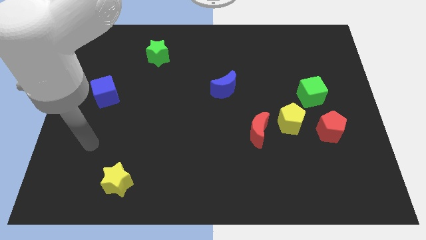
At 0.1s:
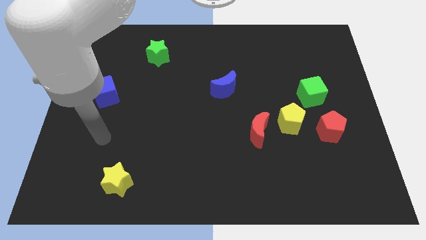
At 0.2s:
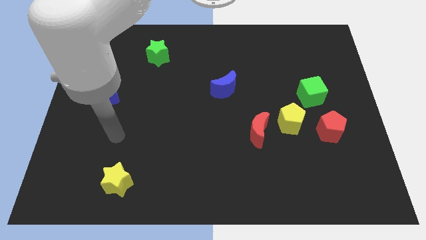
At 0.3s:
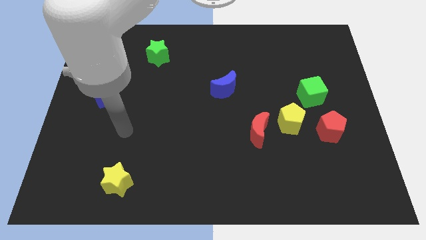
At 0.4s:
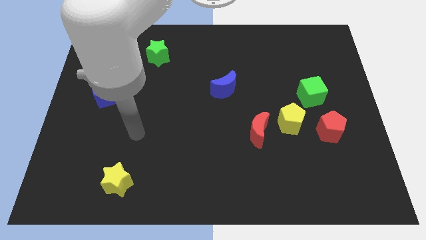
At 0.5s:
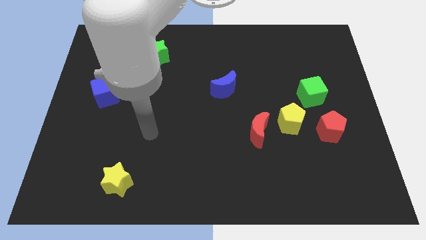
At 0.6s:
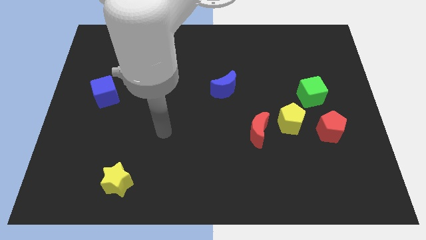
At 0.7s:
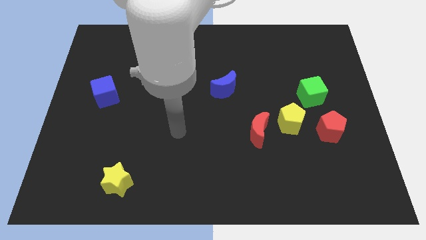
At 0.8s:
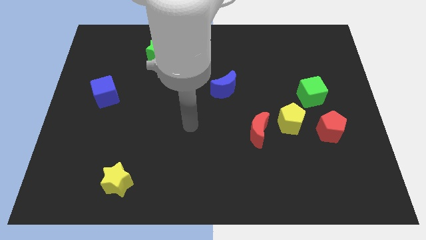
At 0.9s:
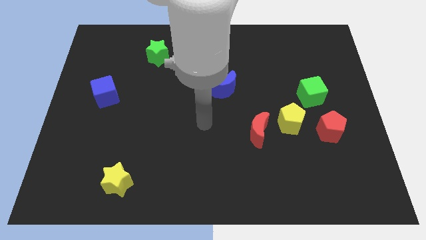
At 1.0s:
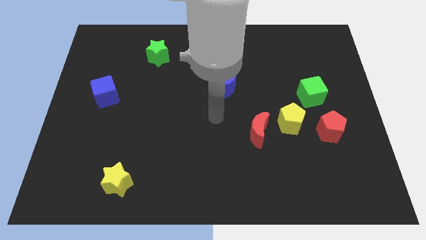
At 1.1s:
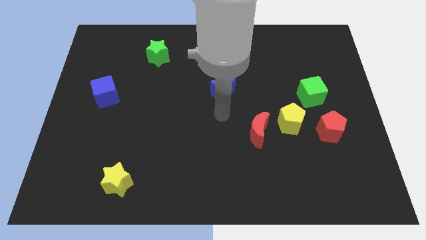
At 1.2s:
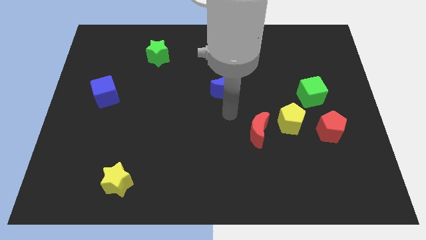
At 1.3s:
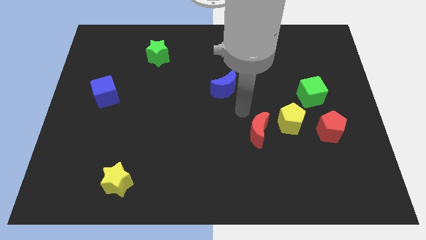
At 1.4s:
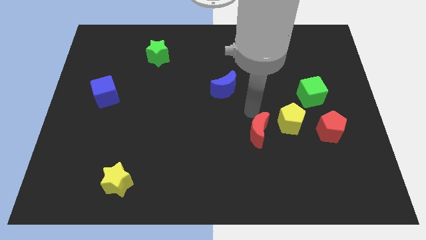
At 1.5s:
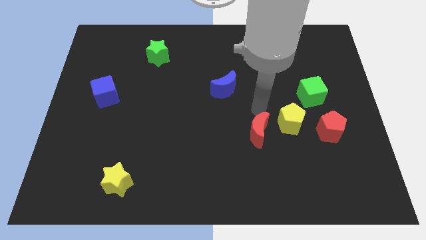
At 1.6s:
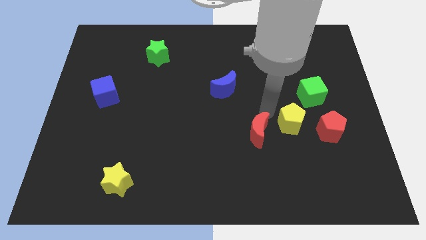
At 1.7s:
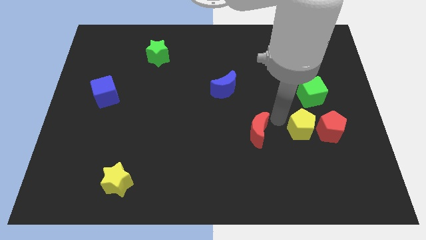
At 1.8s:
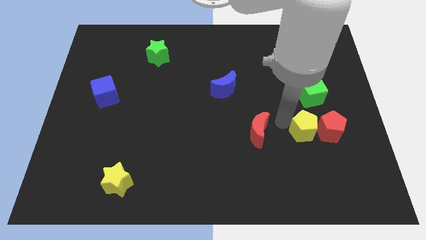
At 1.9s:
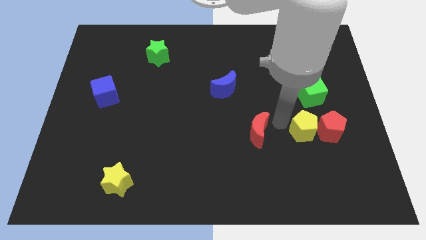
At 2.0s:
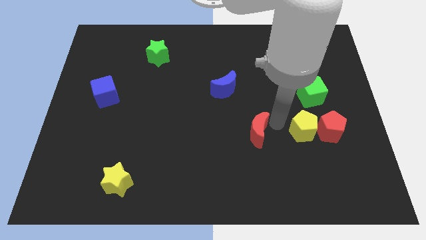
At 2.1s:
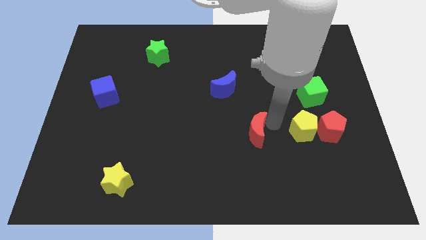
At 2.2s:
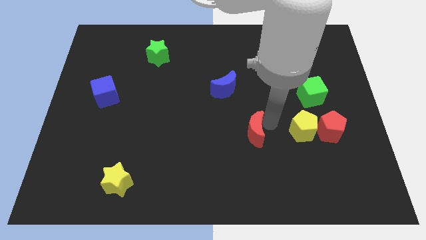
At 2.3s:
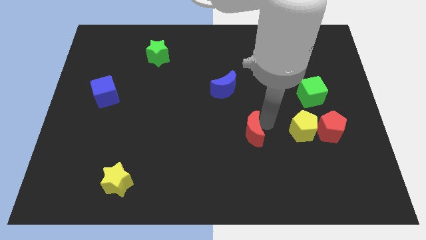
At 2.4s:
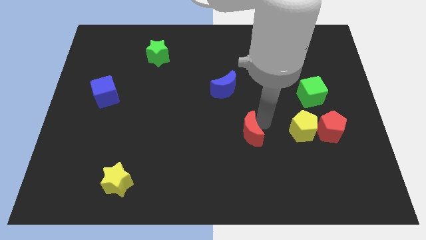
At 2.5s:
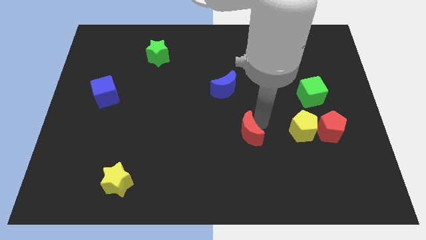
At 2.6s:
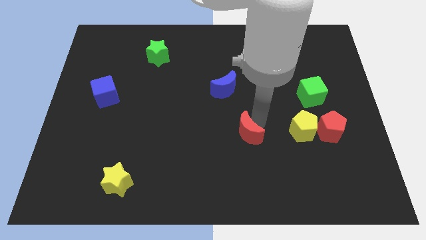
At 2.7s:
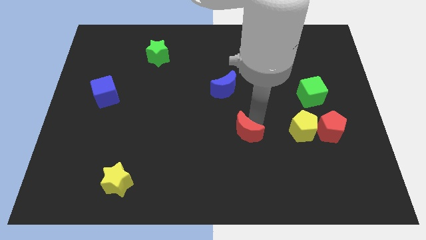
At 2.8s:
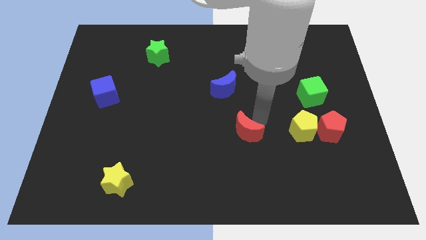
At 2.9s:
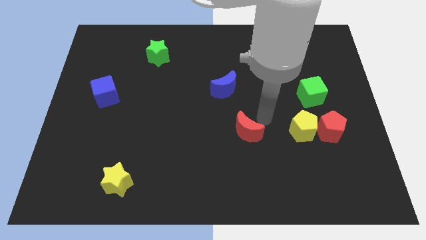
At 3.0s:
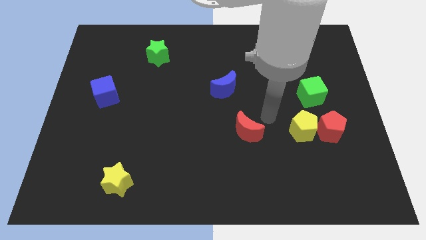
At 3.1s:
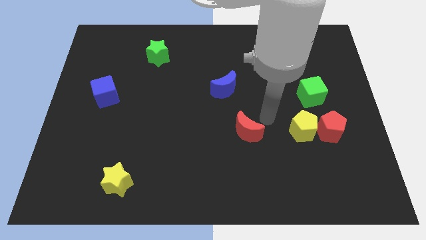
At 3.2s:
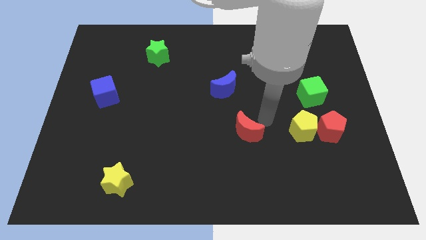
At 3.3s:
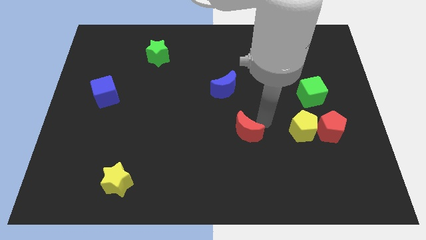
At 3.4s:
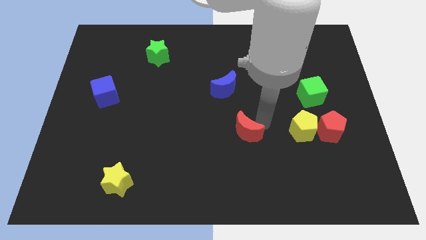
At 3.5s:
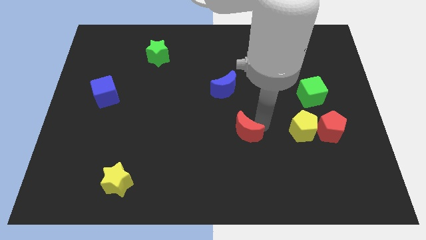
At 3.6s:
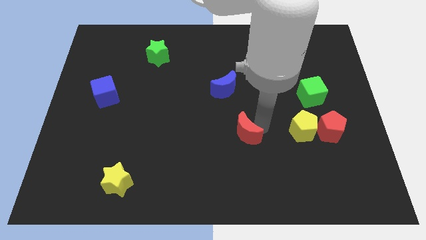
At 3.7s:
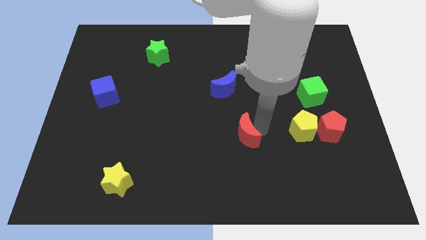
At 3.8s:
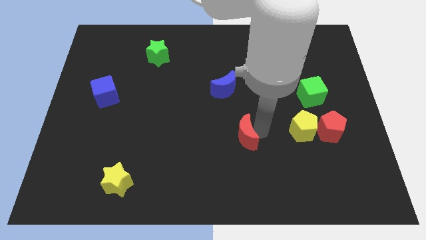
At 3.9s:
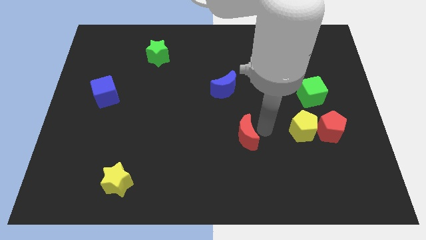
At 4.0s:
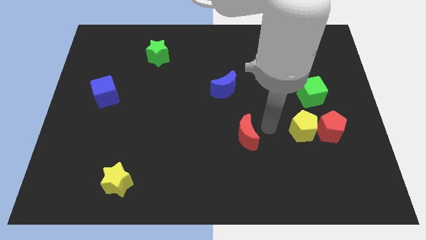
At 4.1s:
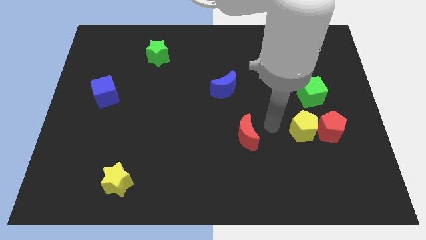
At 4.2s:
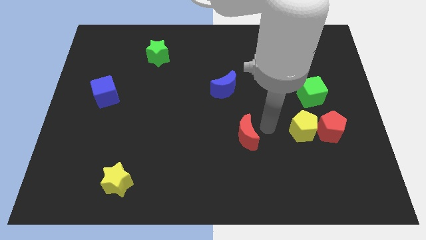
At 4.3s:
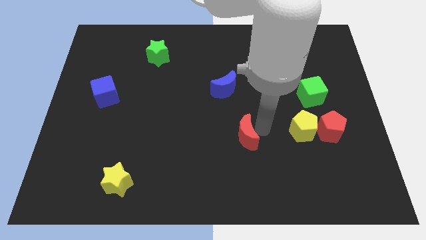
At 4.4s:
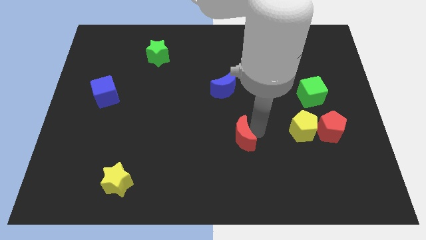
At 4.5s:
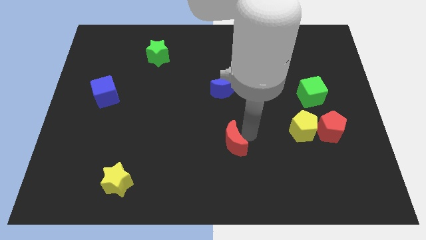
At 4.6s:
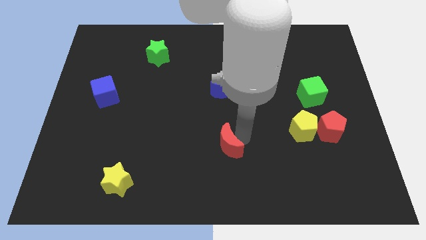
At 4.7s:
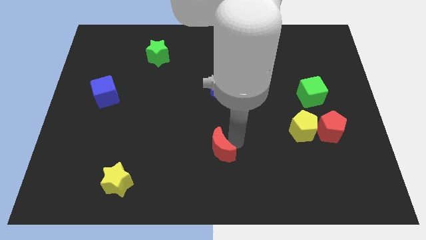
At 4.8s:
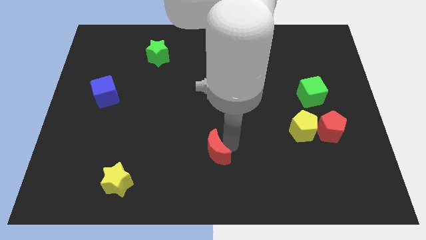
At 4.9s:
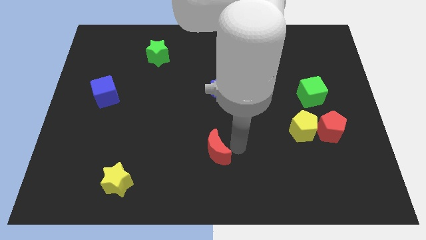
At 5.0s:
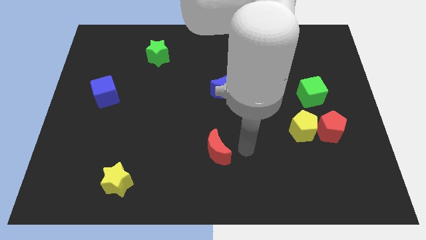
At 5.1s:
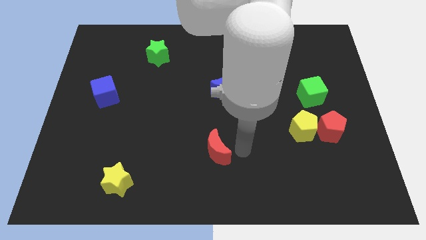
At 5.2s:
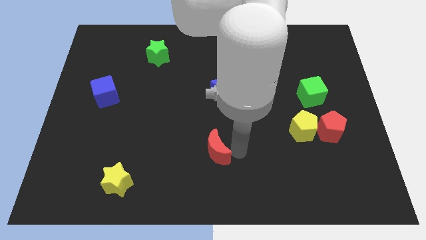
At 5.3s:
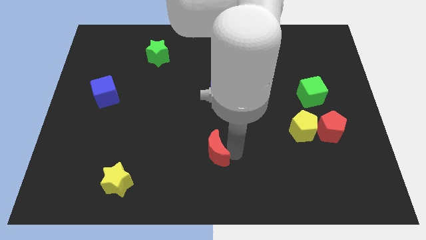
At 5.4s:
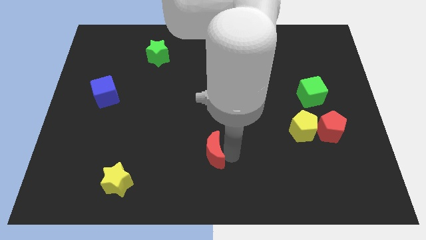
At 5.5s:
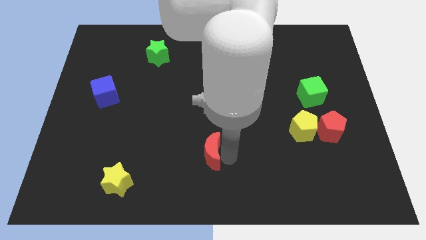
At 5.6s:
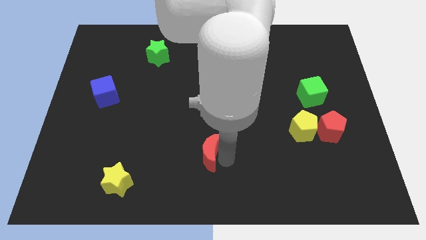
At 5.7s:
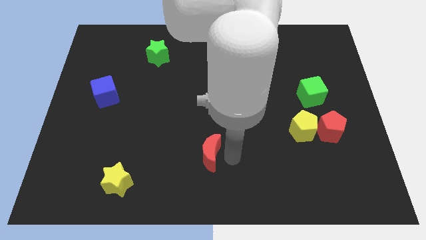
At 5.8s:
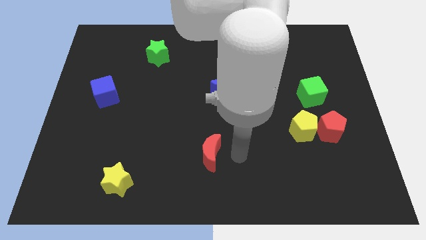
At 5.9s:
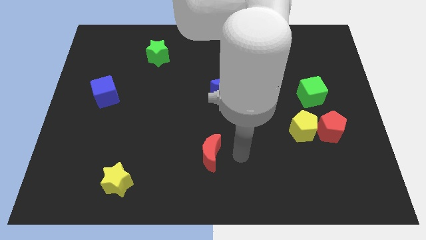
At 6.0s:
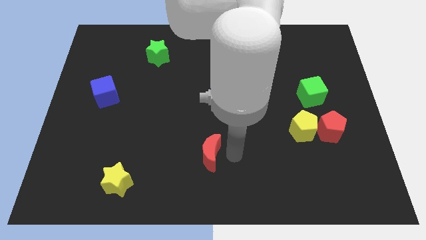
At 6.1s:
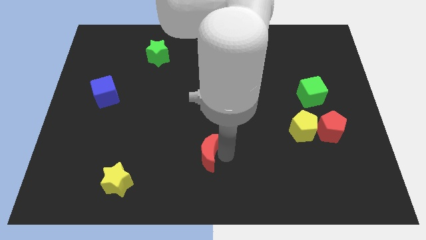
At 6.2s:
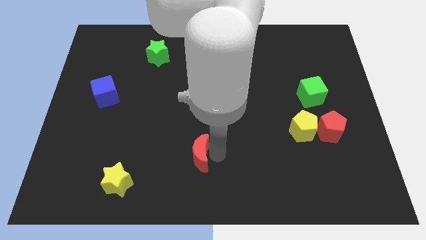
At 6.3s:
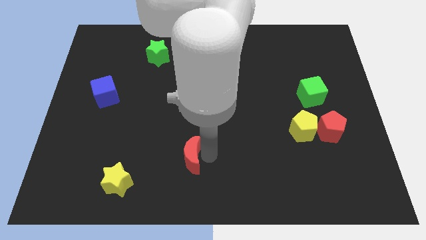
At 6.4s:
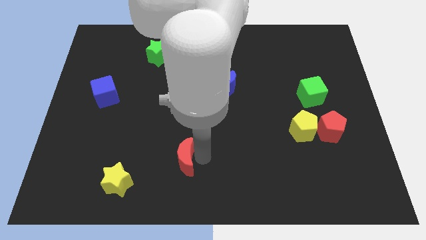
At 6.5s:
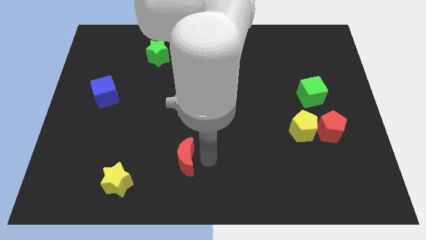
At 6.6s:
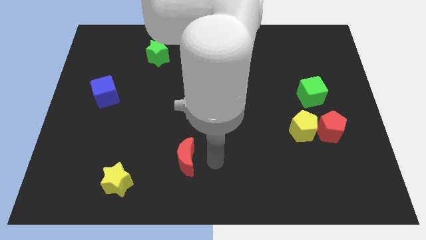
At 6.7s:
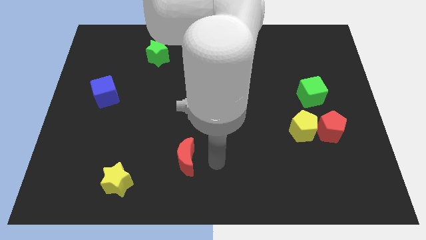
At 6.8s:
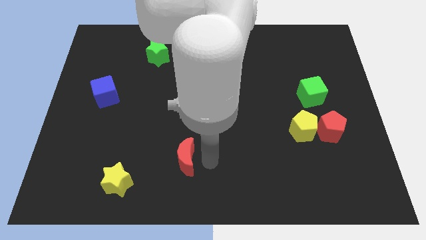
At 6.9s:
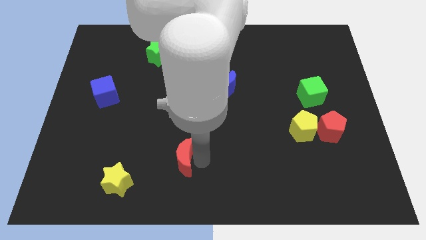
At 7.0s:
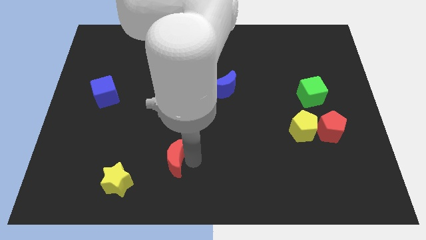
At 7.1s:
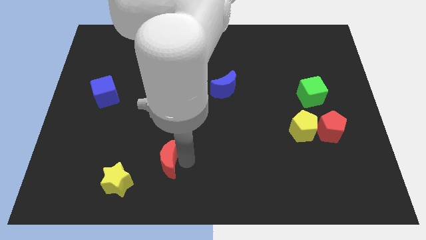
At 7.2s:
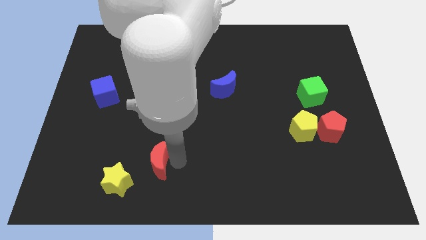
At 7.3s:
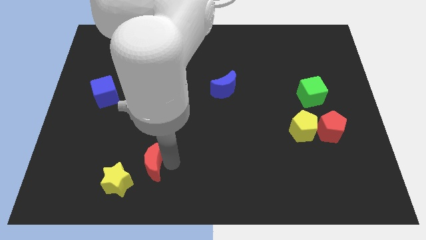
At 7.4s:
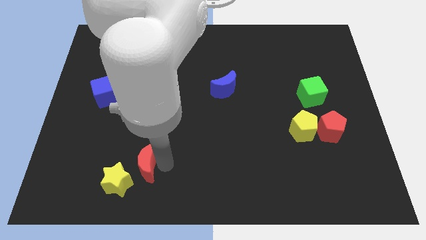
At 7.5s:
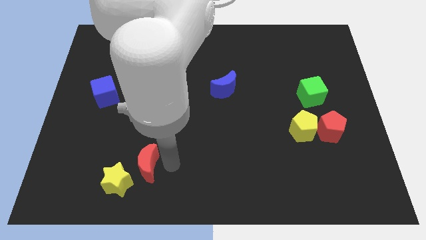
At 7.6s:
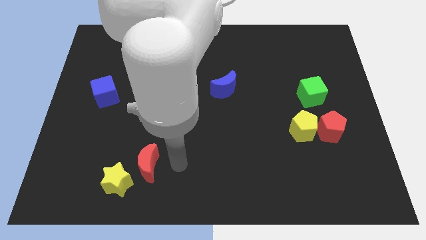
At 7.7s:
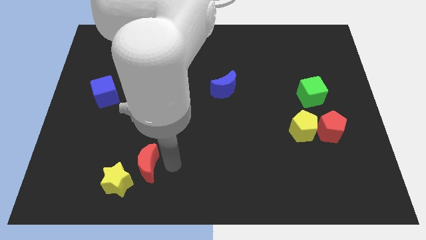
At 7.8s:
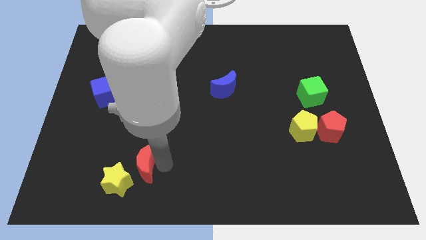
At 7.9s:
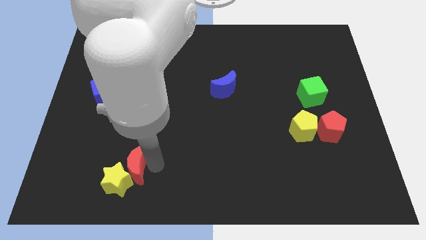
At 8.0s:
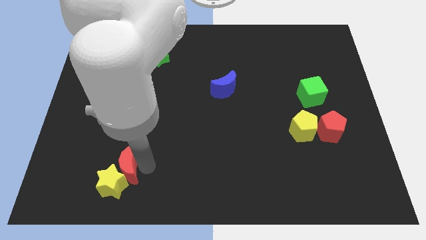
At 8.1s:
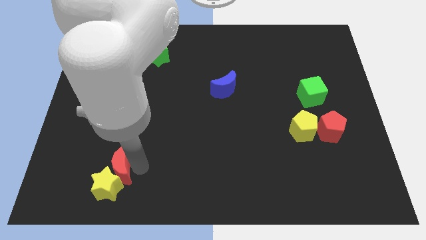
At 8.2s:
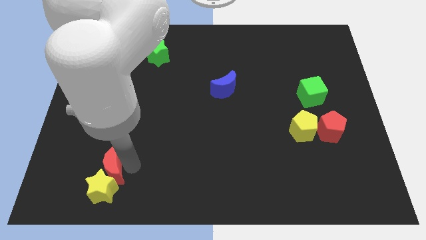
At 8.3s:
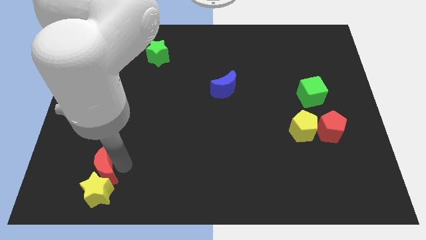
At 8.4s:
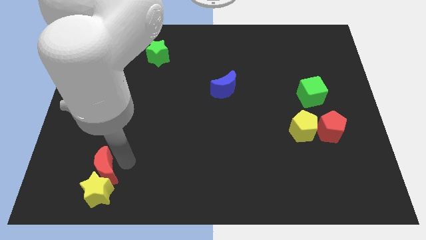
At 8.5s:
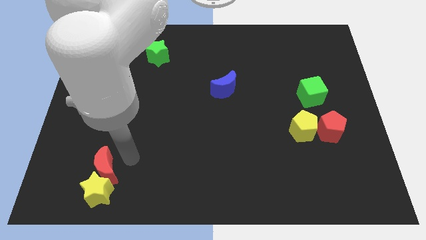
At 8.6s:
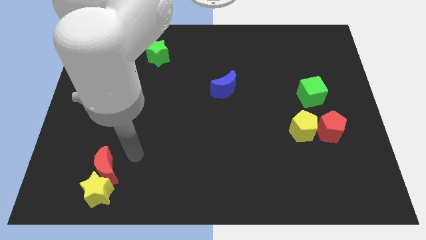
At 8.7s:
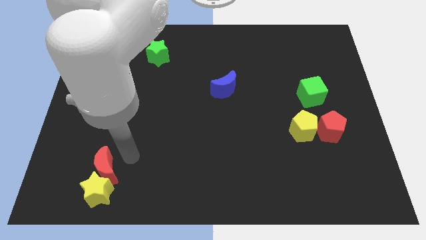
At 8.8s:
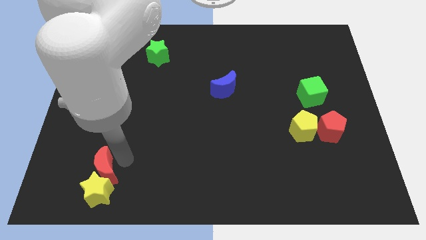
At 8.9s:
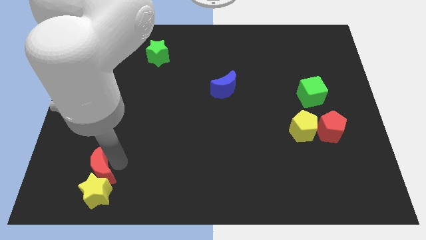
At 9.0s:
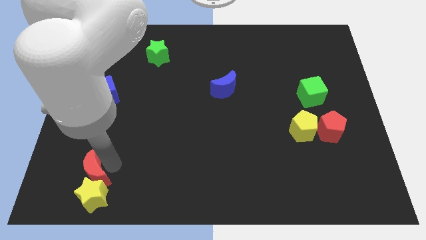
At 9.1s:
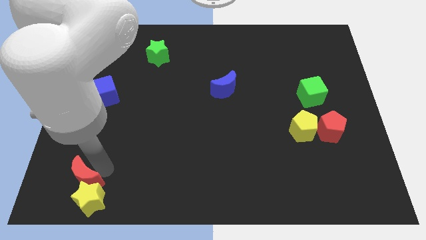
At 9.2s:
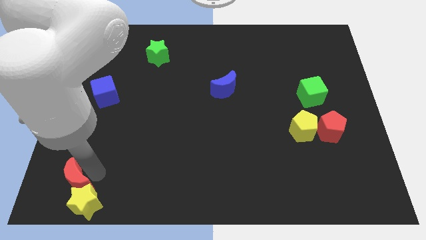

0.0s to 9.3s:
slide the red moon to the bottom left corner
